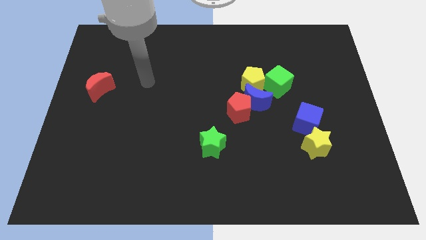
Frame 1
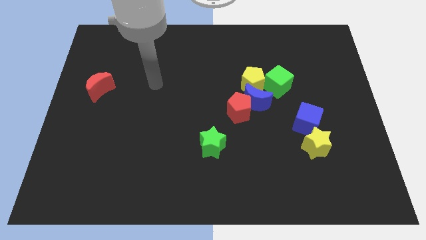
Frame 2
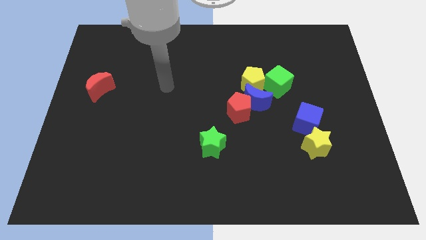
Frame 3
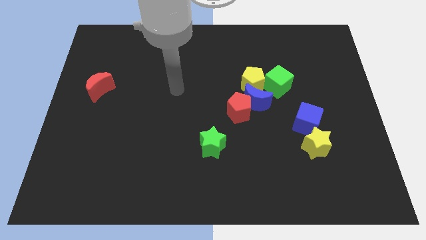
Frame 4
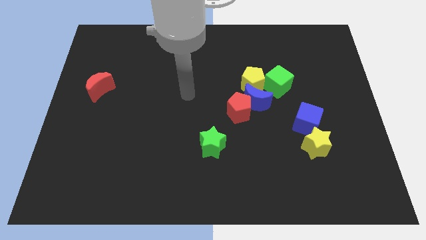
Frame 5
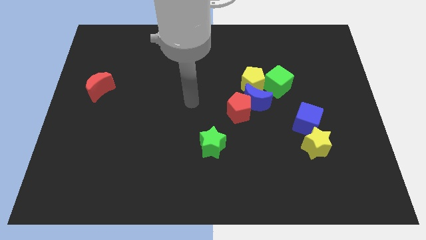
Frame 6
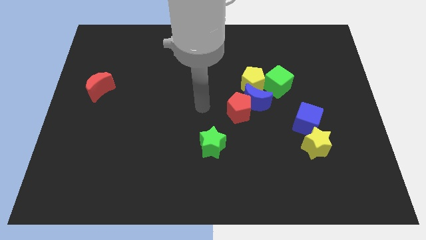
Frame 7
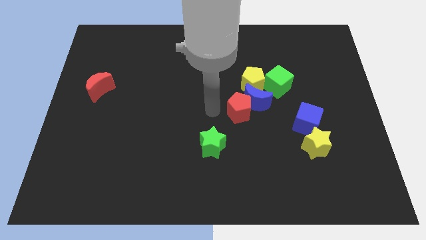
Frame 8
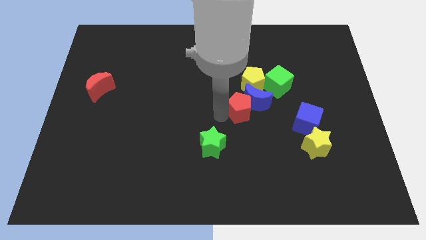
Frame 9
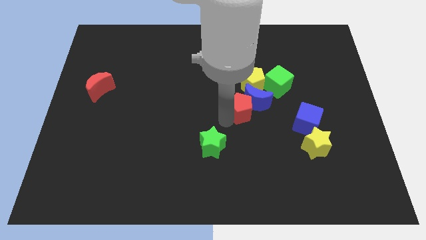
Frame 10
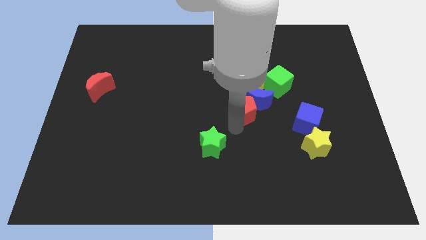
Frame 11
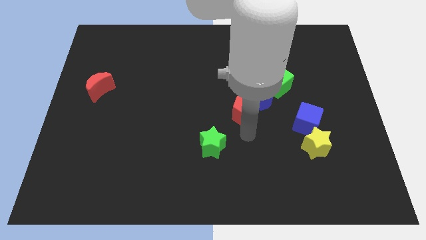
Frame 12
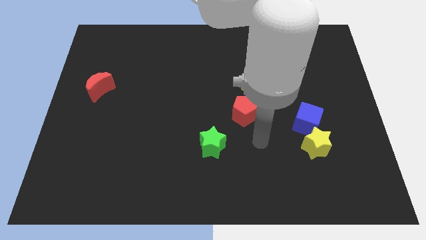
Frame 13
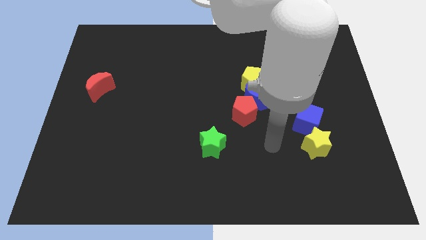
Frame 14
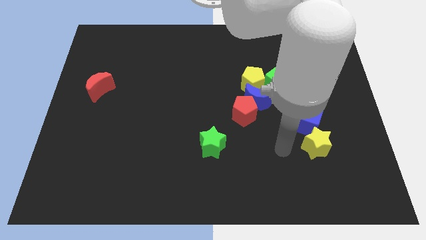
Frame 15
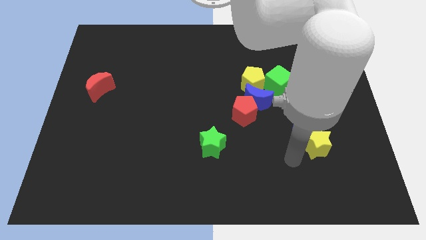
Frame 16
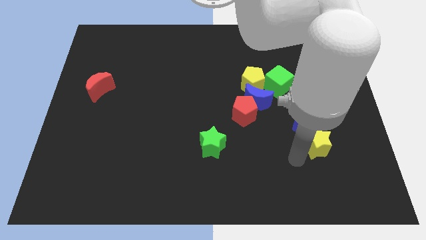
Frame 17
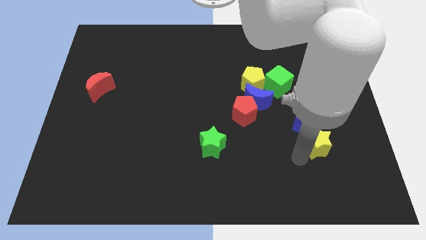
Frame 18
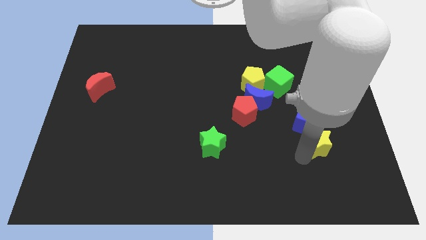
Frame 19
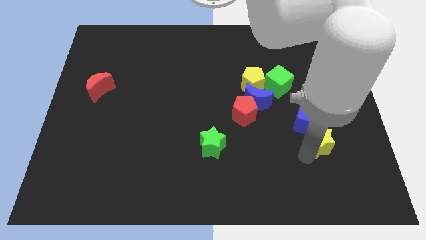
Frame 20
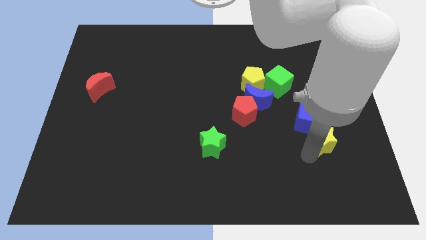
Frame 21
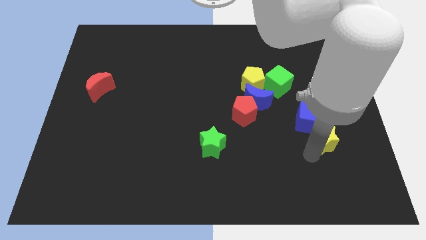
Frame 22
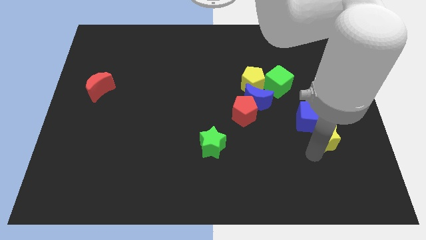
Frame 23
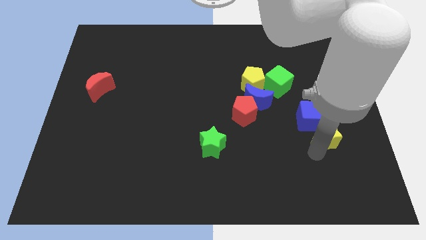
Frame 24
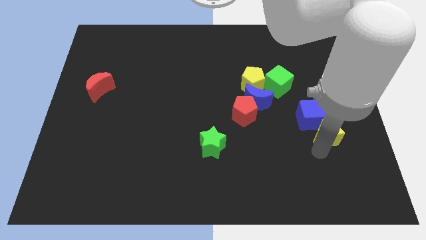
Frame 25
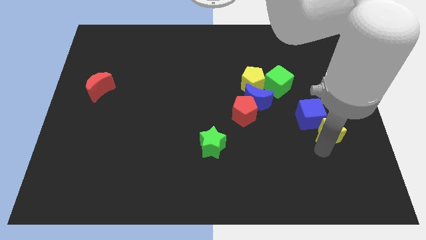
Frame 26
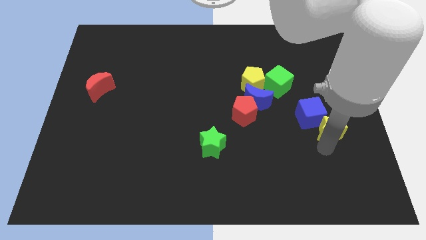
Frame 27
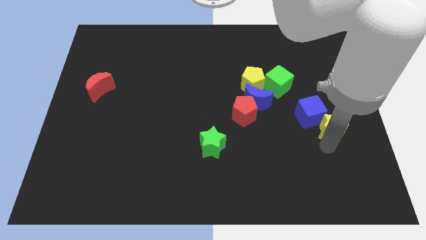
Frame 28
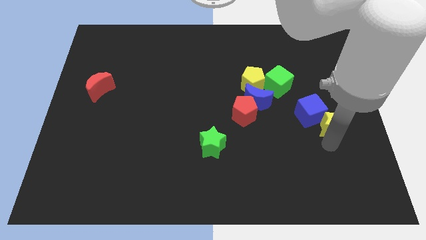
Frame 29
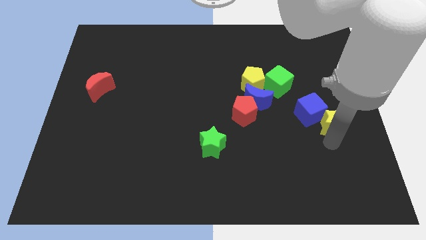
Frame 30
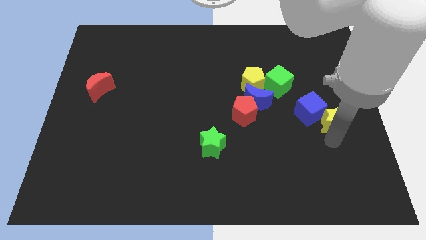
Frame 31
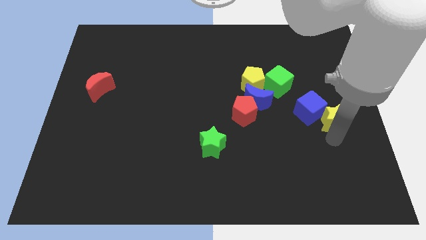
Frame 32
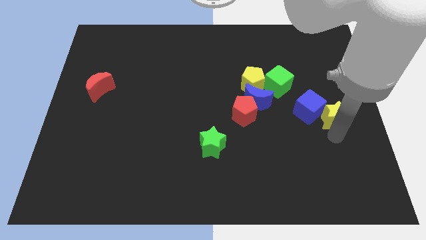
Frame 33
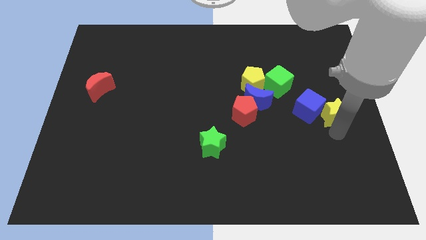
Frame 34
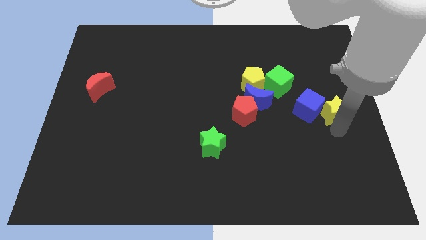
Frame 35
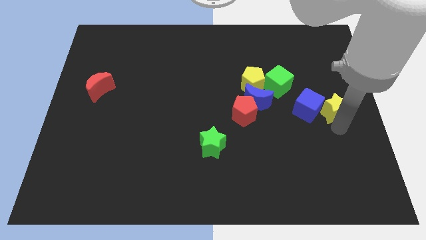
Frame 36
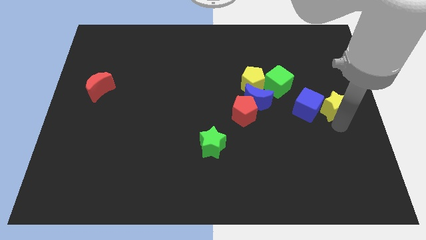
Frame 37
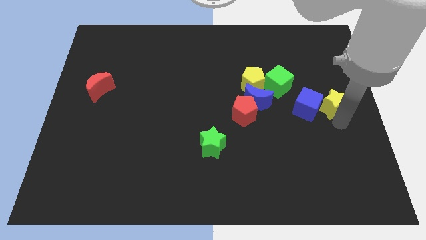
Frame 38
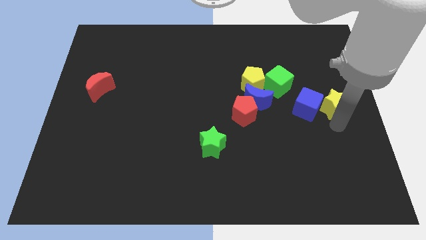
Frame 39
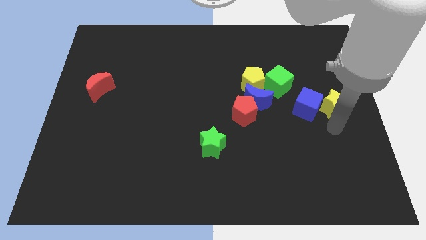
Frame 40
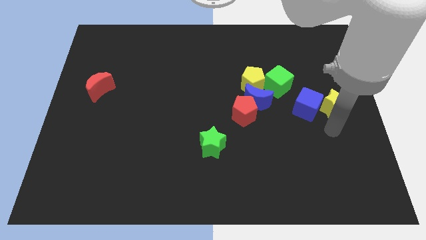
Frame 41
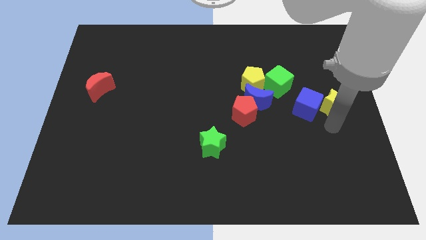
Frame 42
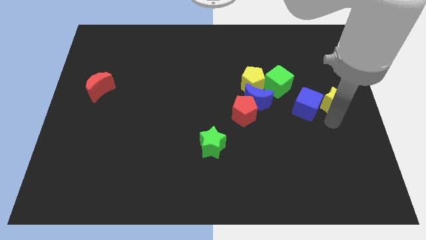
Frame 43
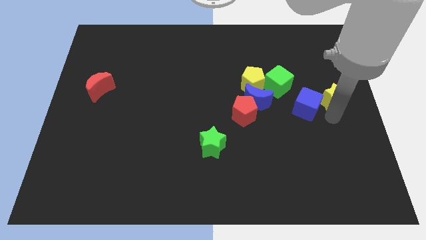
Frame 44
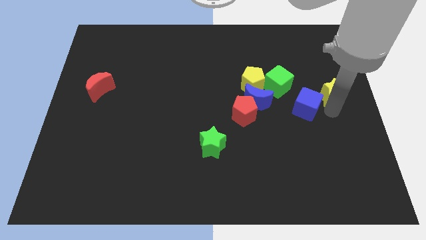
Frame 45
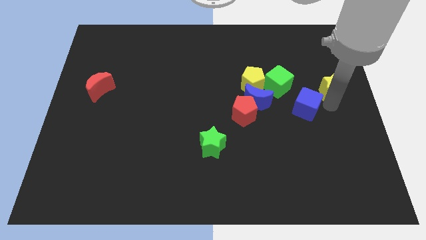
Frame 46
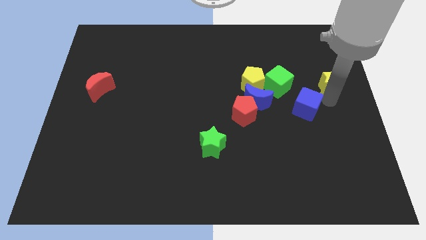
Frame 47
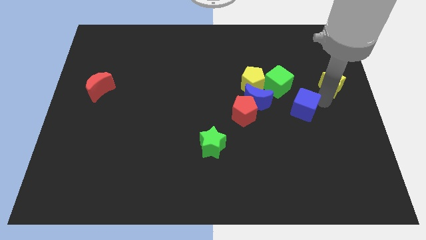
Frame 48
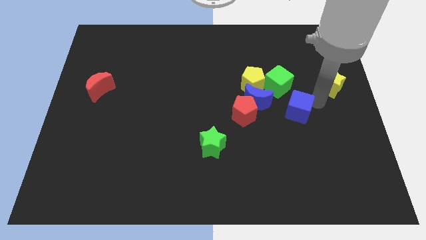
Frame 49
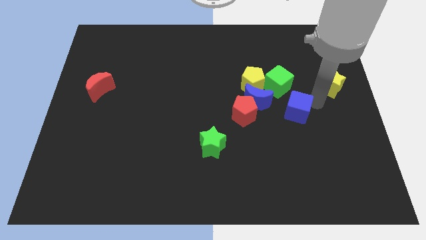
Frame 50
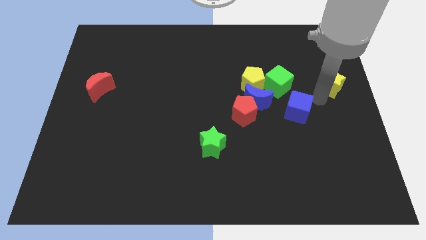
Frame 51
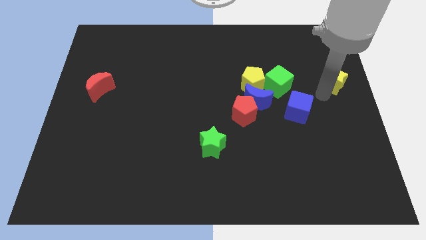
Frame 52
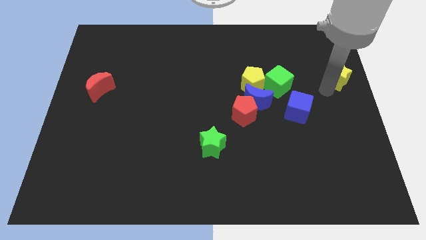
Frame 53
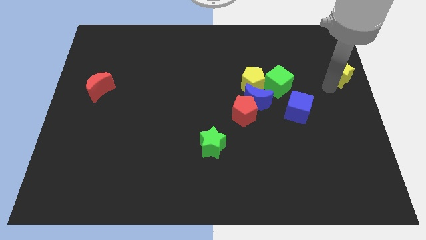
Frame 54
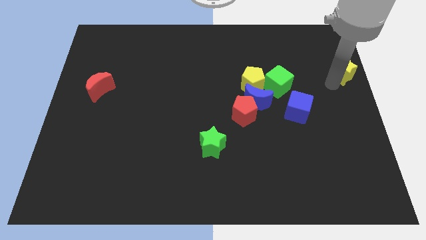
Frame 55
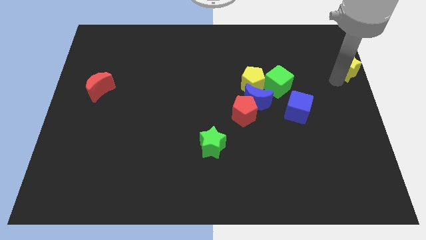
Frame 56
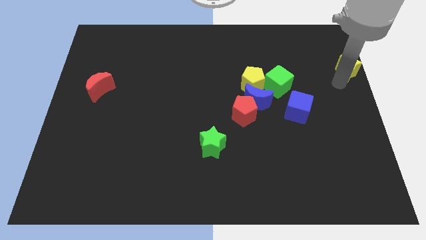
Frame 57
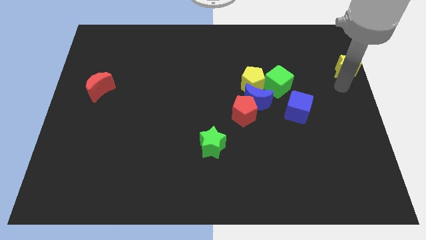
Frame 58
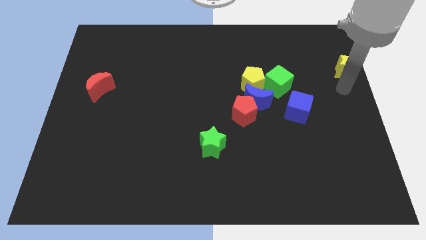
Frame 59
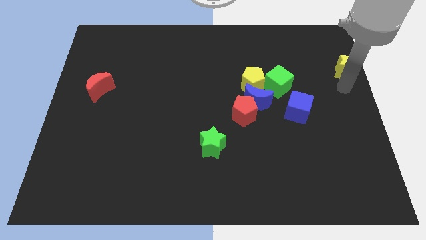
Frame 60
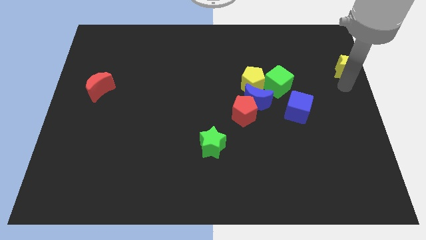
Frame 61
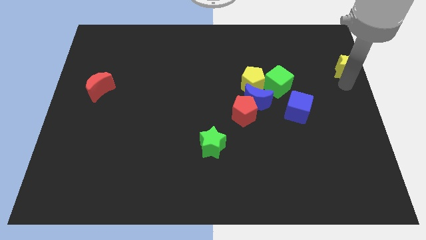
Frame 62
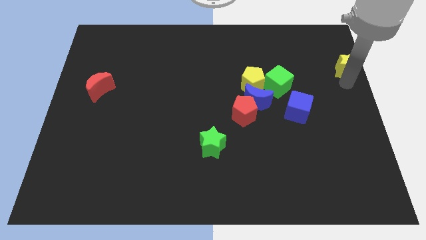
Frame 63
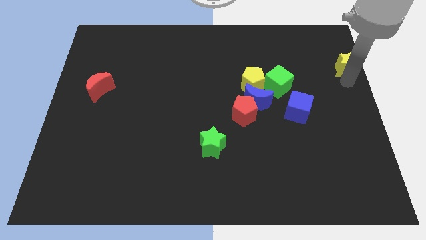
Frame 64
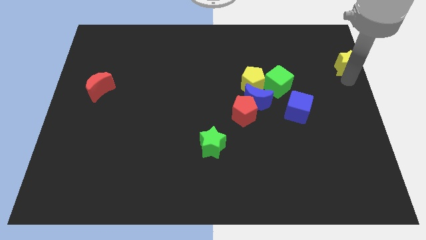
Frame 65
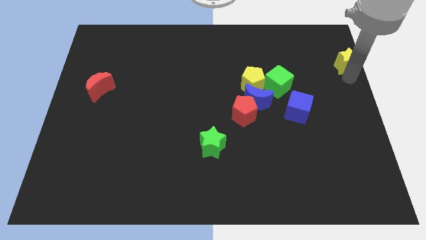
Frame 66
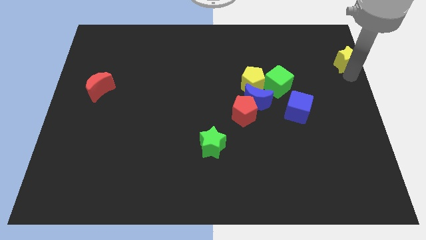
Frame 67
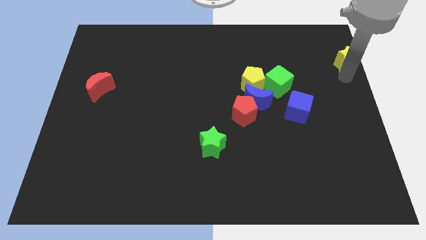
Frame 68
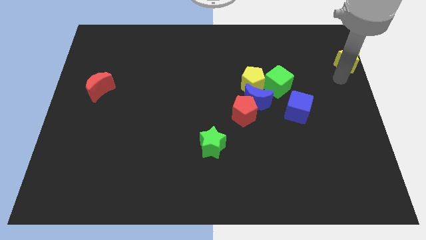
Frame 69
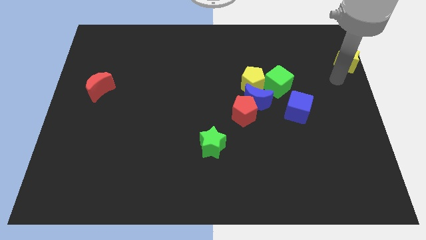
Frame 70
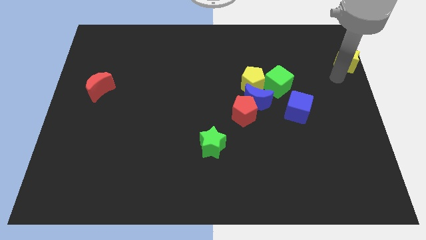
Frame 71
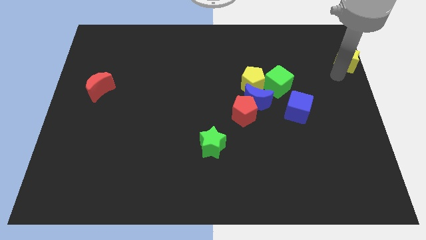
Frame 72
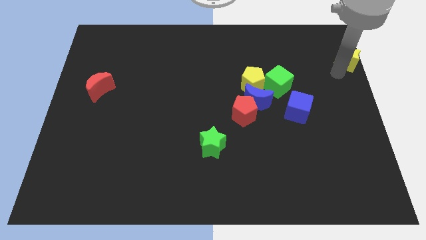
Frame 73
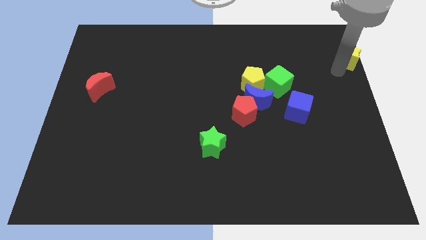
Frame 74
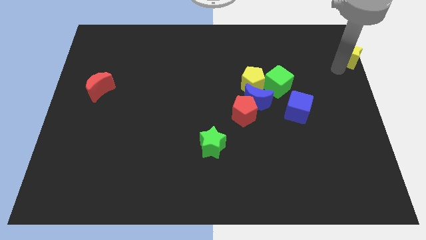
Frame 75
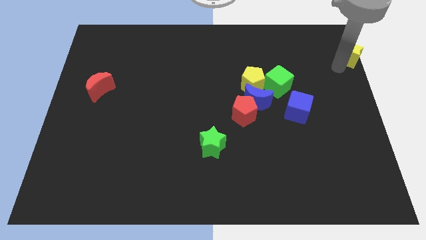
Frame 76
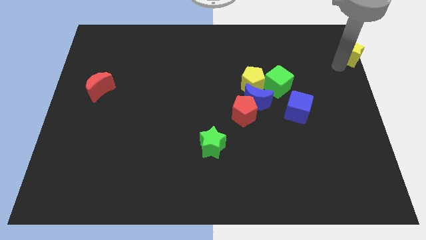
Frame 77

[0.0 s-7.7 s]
push the yellow star to the top right of the board
